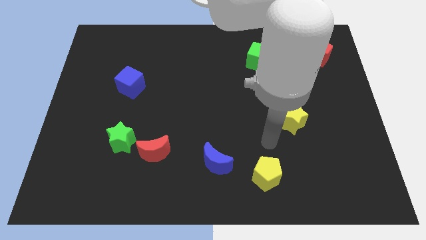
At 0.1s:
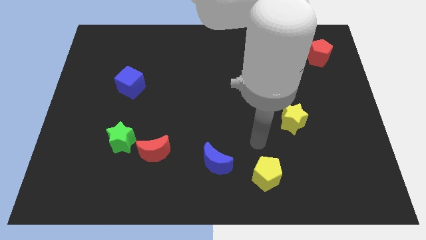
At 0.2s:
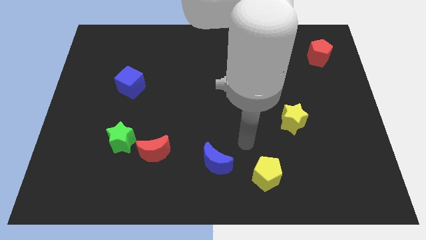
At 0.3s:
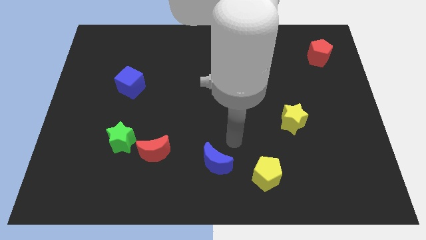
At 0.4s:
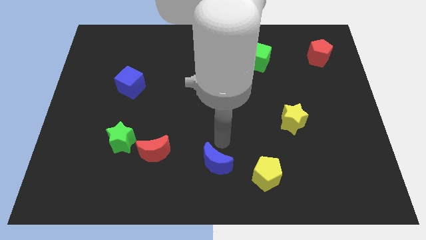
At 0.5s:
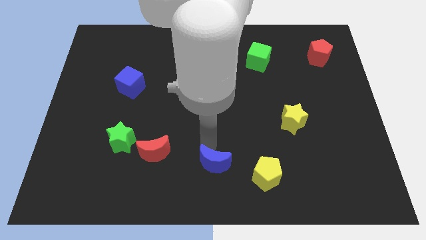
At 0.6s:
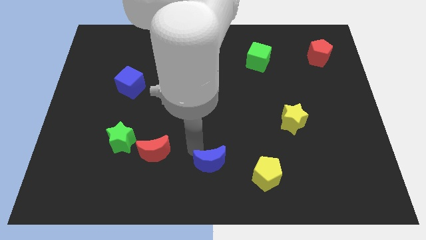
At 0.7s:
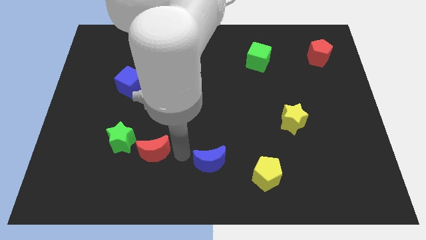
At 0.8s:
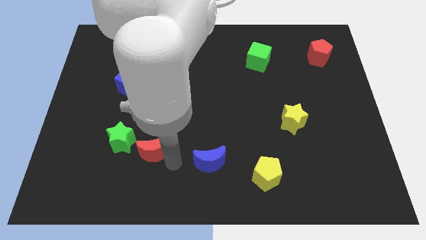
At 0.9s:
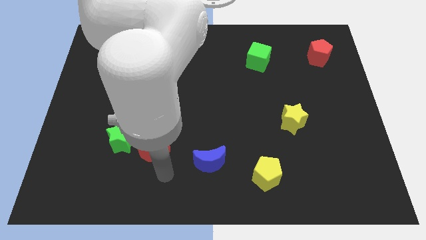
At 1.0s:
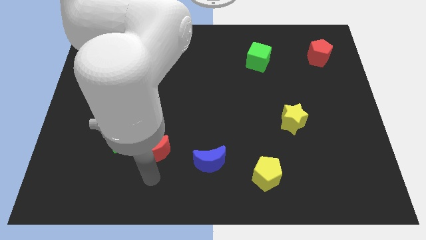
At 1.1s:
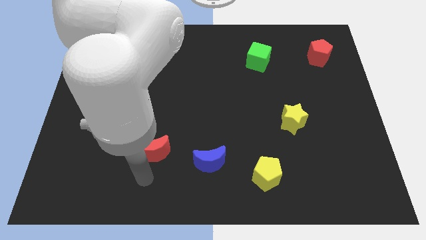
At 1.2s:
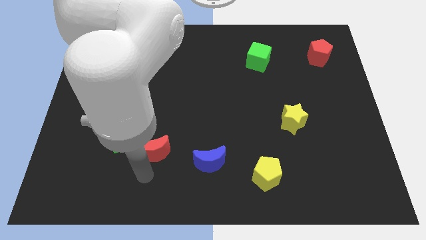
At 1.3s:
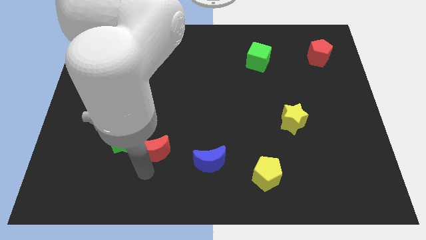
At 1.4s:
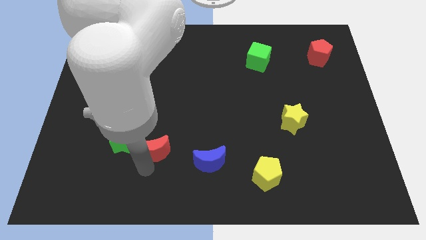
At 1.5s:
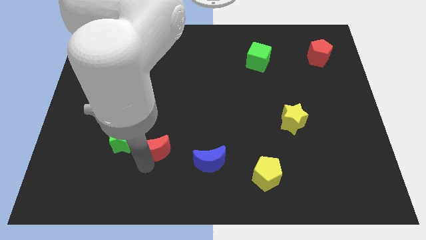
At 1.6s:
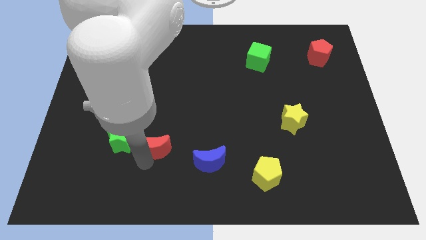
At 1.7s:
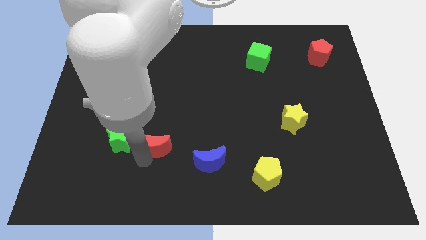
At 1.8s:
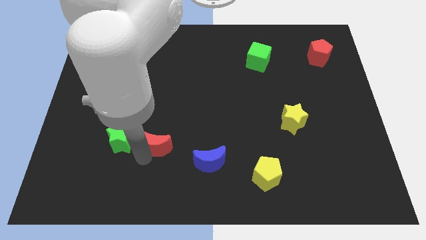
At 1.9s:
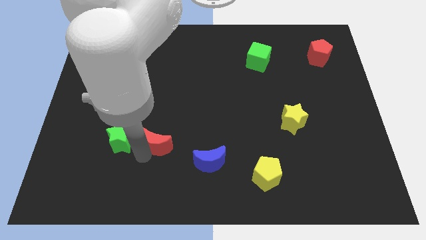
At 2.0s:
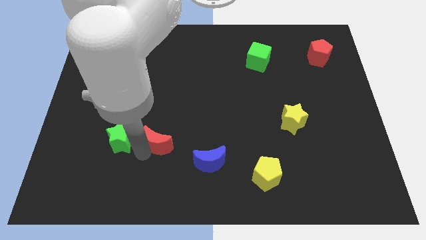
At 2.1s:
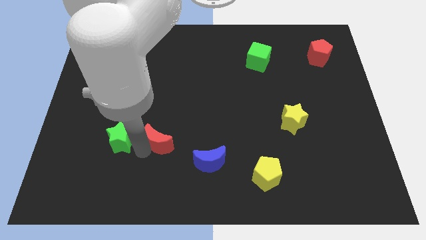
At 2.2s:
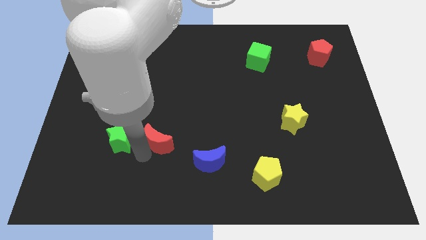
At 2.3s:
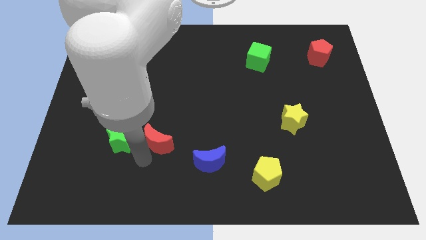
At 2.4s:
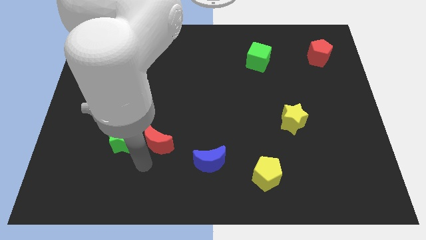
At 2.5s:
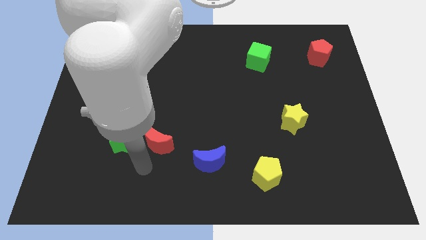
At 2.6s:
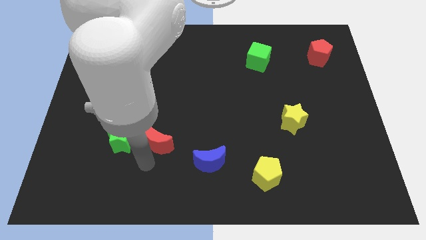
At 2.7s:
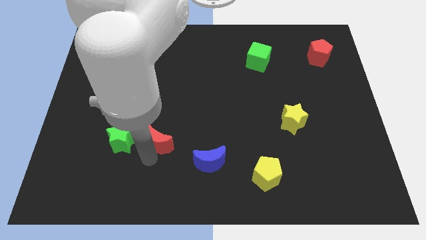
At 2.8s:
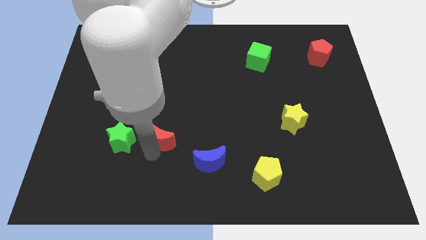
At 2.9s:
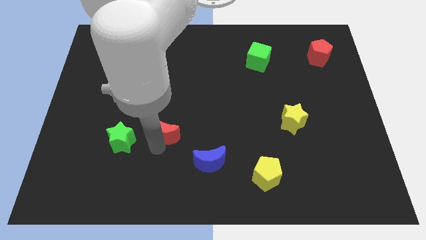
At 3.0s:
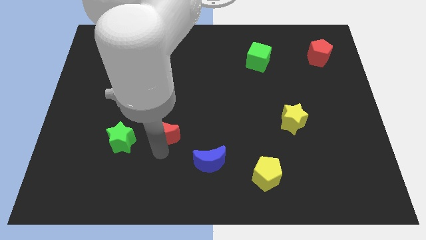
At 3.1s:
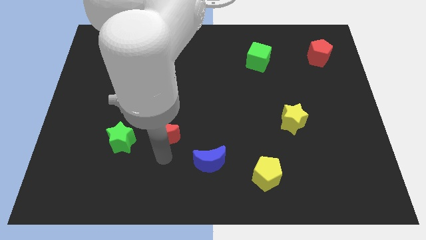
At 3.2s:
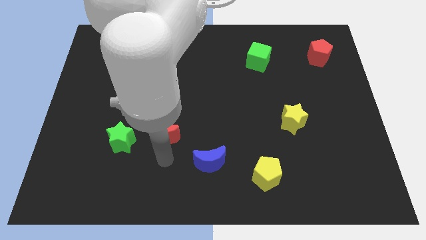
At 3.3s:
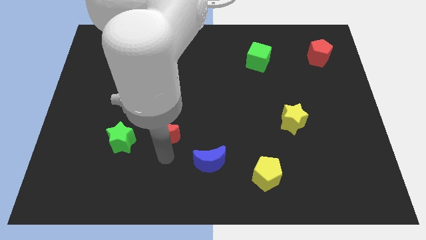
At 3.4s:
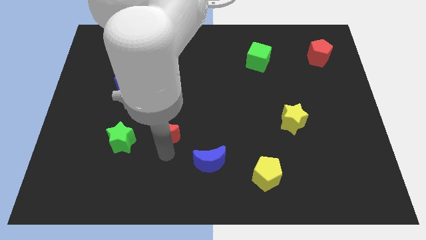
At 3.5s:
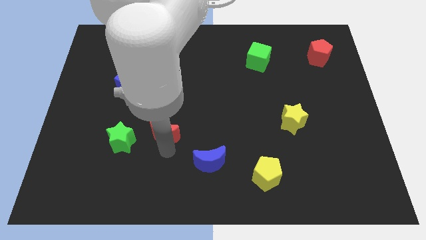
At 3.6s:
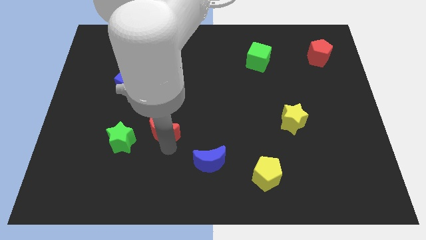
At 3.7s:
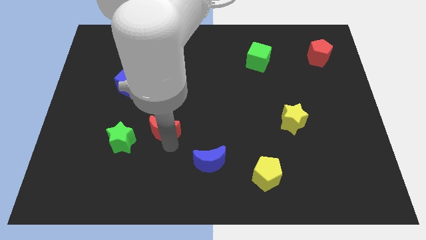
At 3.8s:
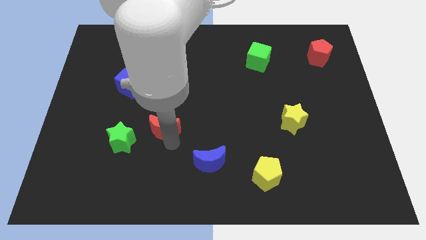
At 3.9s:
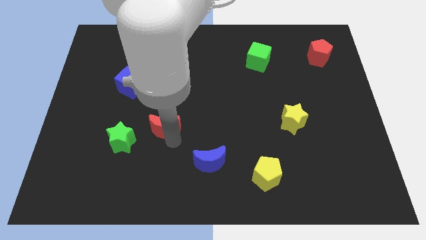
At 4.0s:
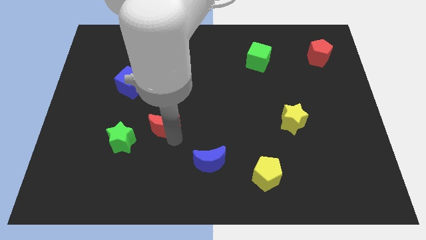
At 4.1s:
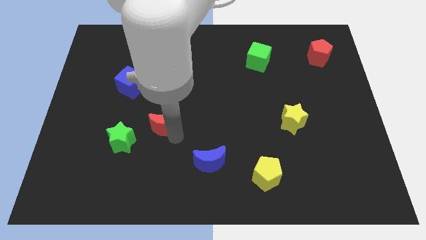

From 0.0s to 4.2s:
slightly move the red moon up

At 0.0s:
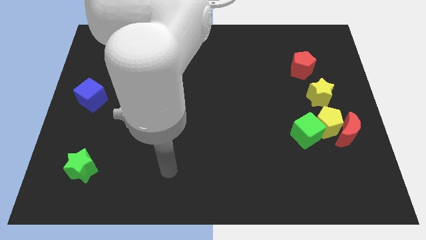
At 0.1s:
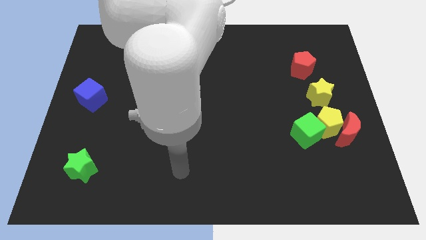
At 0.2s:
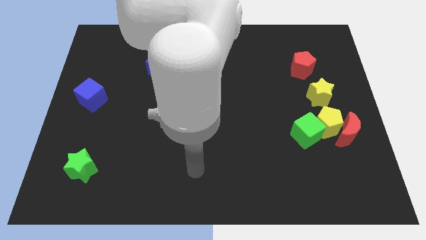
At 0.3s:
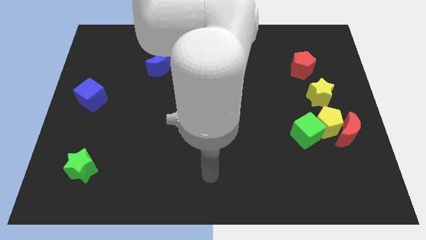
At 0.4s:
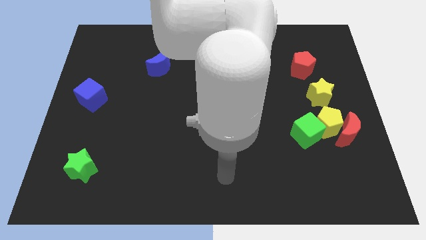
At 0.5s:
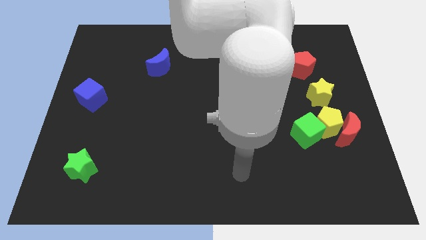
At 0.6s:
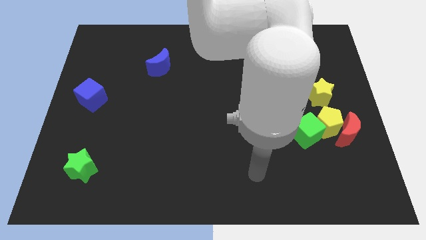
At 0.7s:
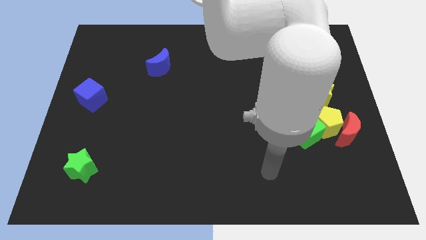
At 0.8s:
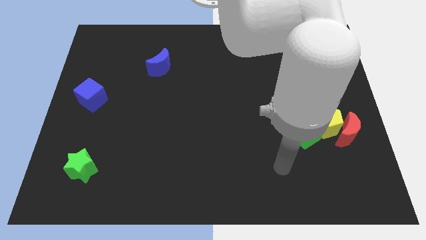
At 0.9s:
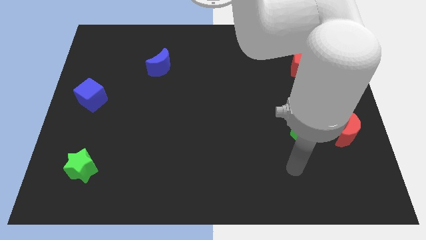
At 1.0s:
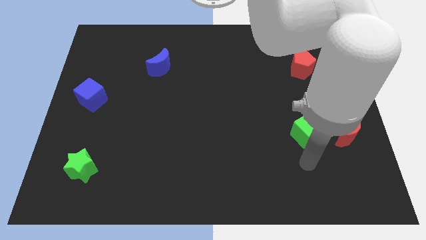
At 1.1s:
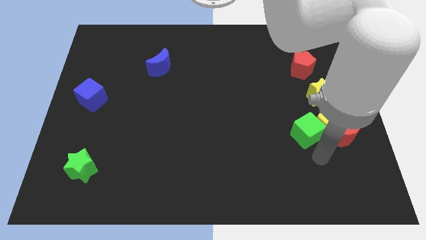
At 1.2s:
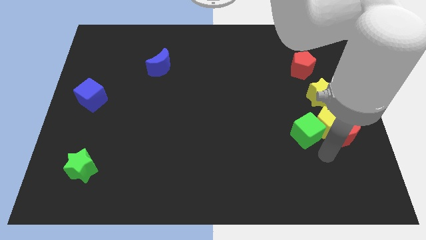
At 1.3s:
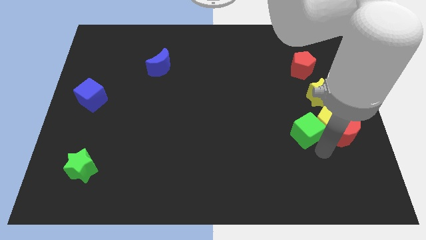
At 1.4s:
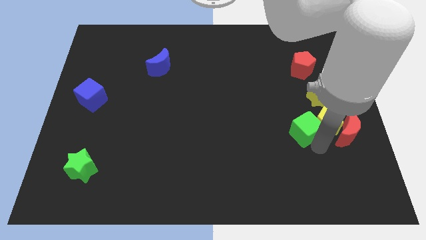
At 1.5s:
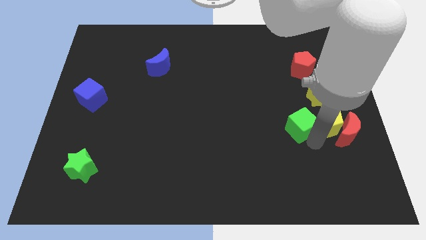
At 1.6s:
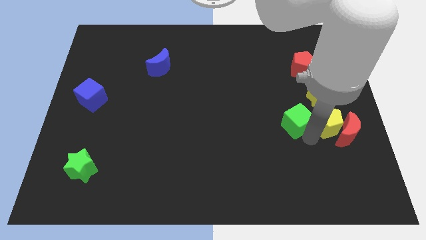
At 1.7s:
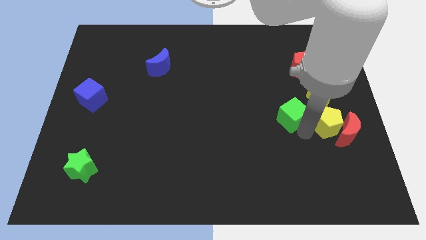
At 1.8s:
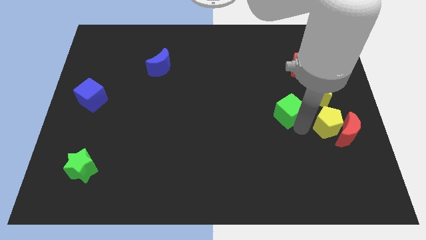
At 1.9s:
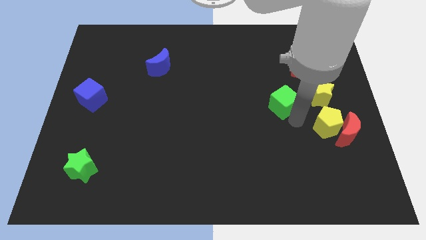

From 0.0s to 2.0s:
push the green cube diagonally upwards and left somewhat

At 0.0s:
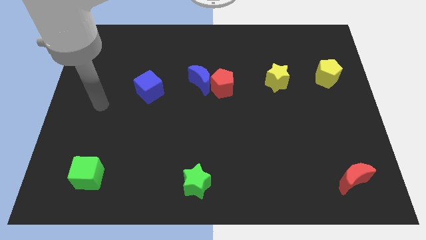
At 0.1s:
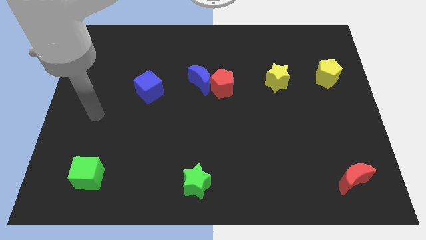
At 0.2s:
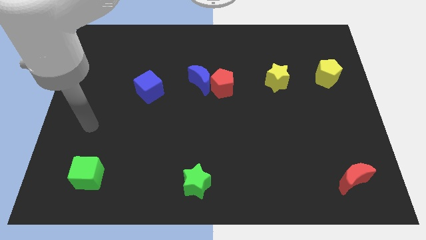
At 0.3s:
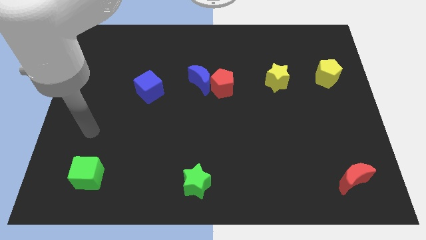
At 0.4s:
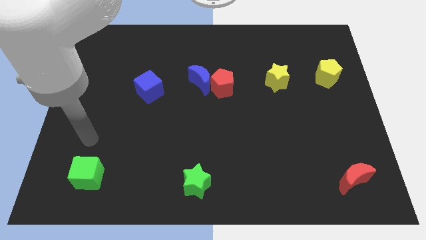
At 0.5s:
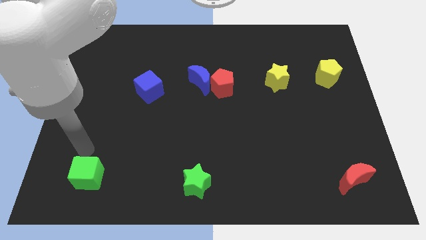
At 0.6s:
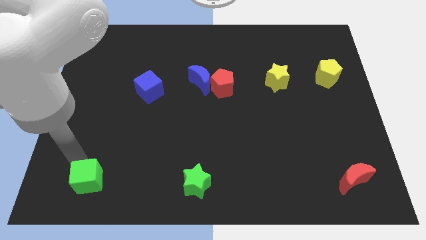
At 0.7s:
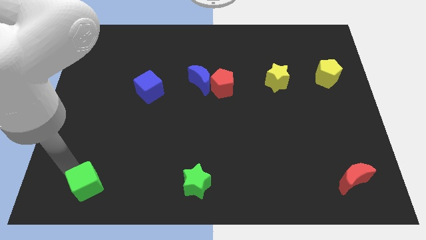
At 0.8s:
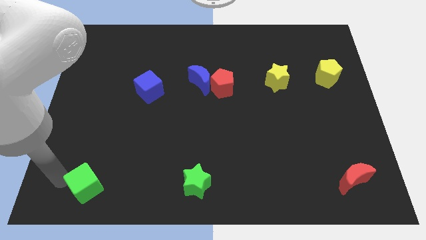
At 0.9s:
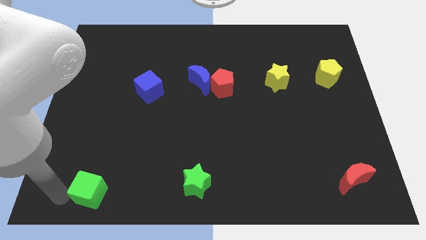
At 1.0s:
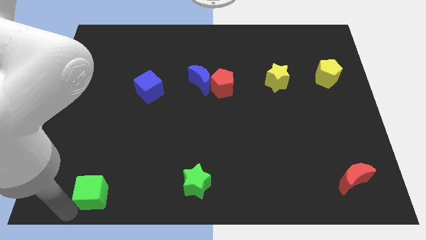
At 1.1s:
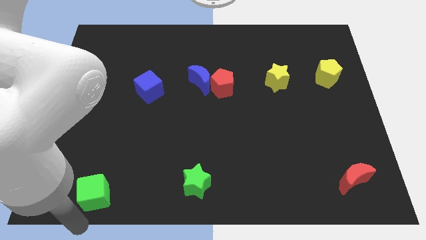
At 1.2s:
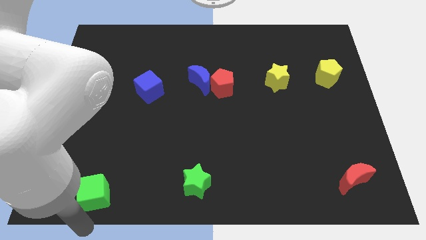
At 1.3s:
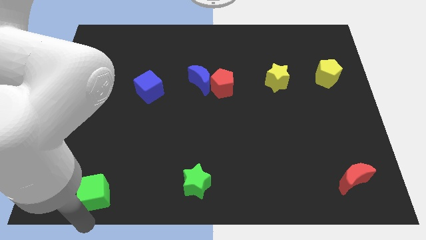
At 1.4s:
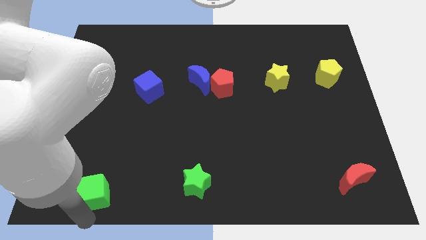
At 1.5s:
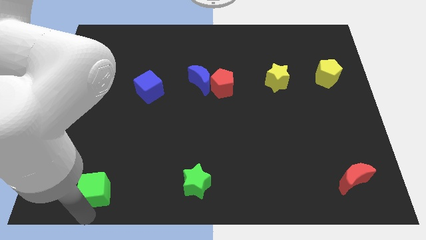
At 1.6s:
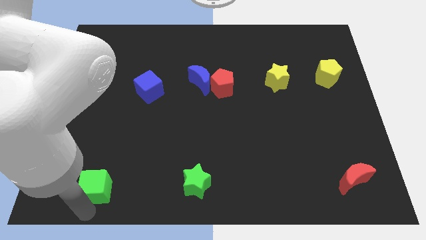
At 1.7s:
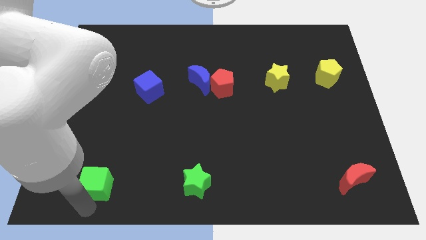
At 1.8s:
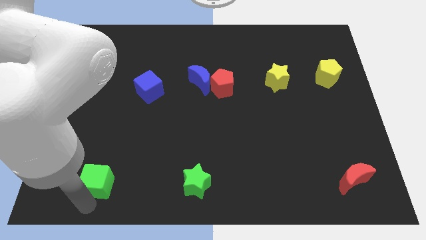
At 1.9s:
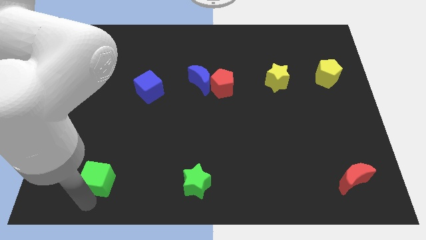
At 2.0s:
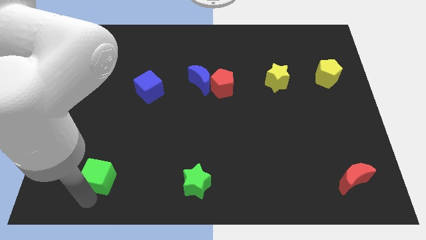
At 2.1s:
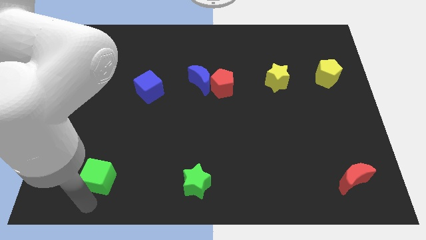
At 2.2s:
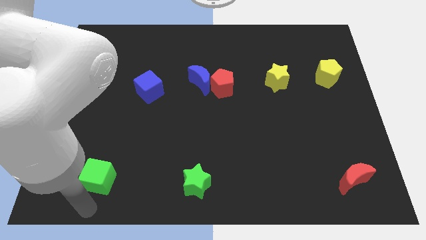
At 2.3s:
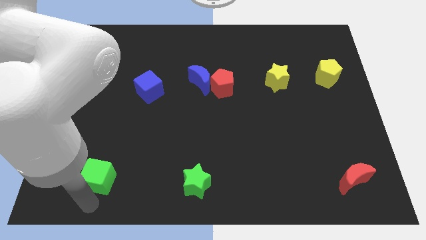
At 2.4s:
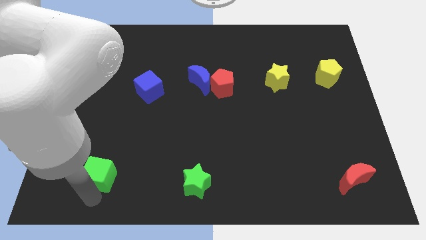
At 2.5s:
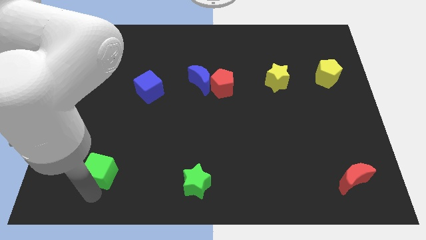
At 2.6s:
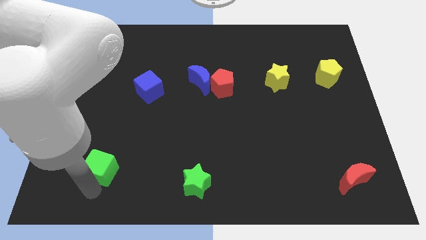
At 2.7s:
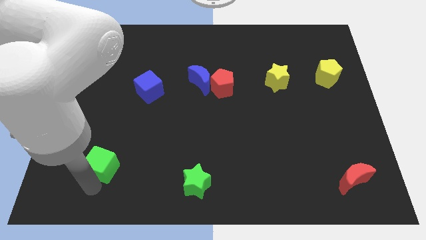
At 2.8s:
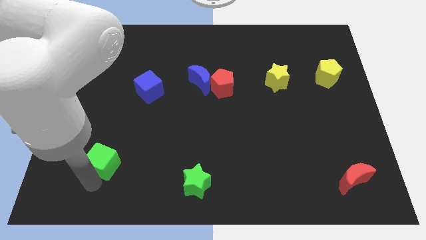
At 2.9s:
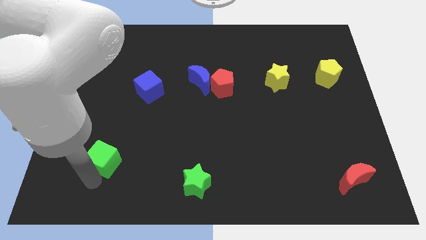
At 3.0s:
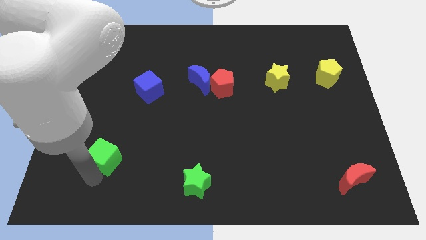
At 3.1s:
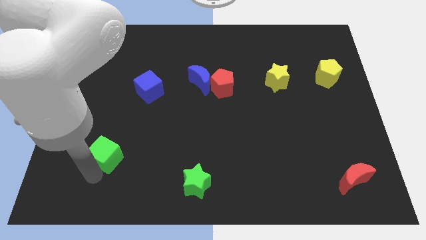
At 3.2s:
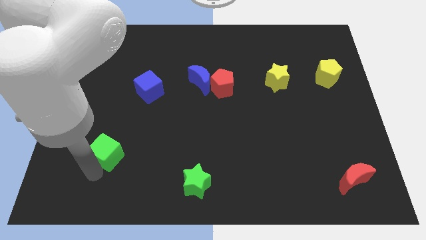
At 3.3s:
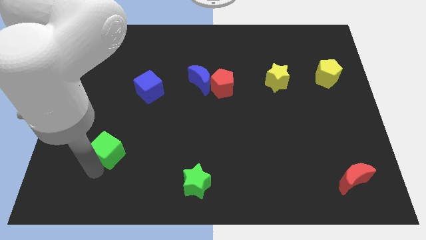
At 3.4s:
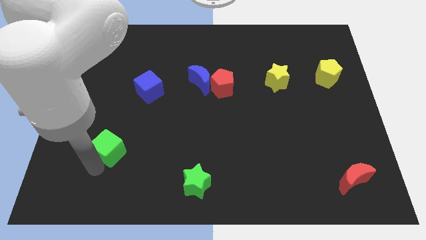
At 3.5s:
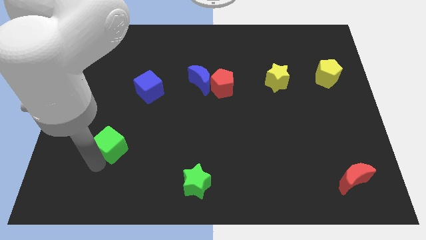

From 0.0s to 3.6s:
slightly slide the green cube upwards and then to the right
